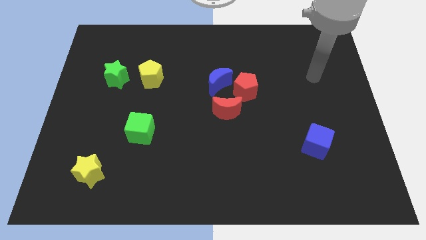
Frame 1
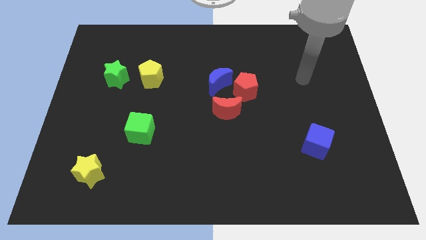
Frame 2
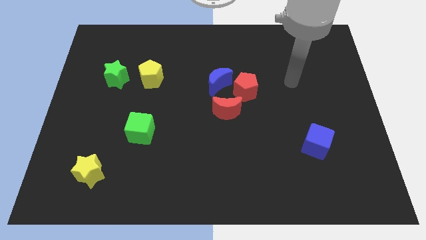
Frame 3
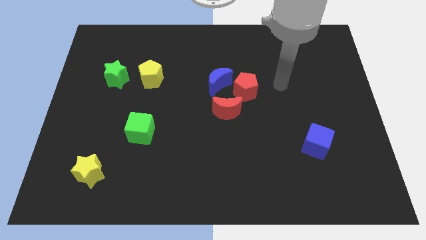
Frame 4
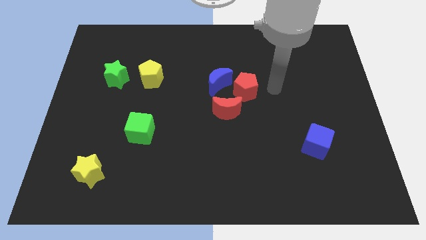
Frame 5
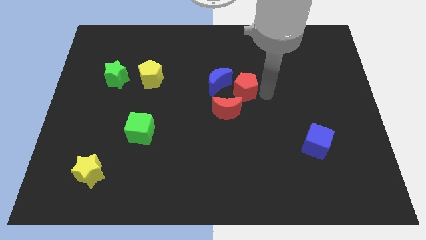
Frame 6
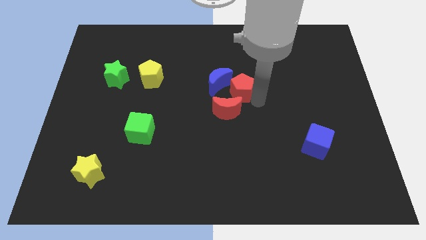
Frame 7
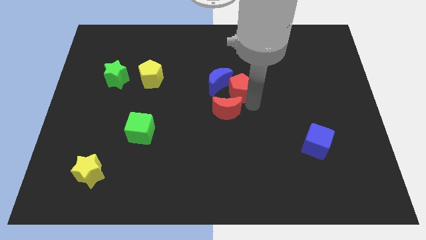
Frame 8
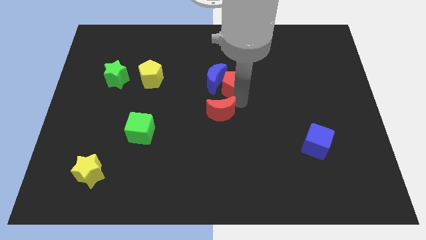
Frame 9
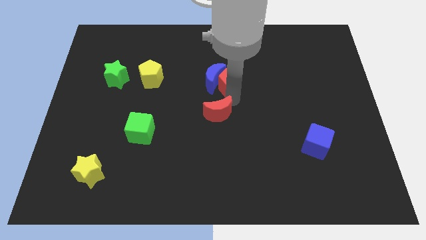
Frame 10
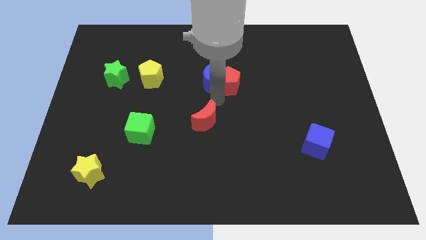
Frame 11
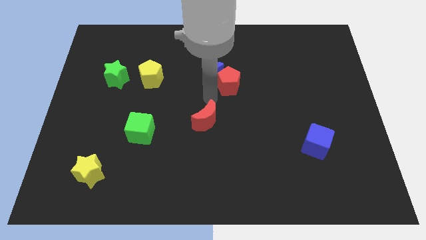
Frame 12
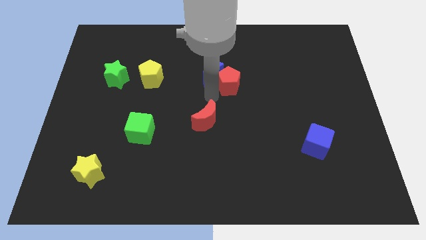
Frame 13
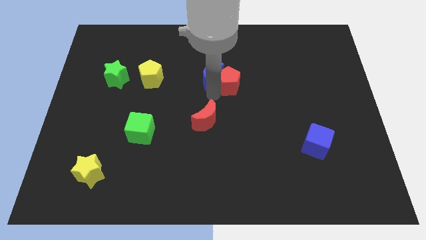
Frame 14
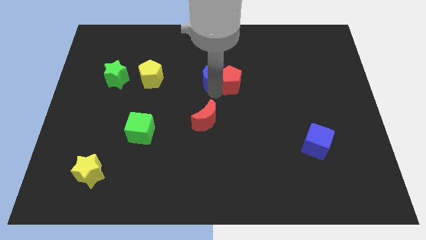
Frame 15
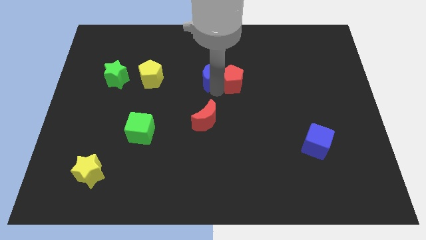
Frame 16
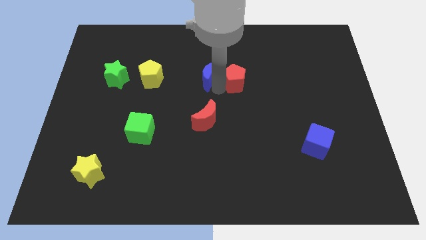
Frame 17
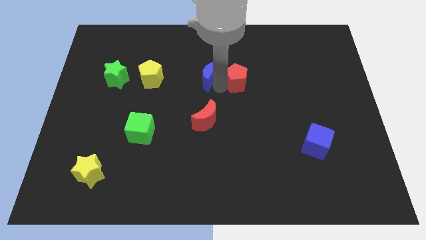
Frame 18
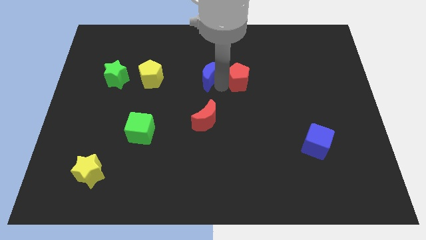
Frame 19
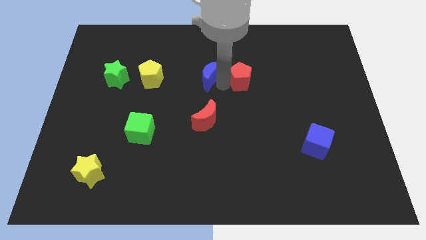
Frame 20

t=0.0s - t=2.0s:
move the red pentagon away from the blue moon and red moon

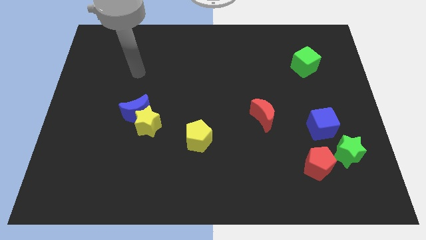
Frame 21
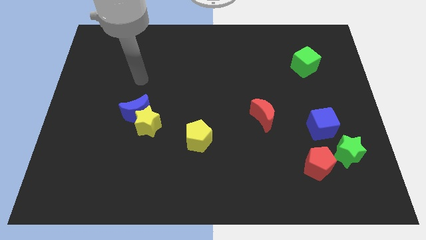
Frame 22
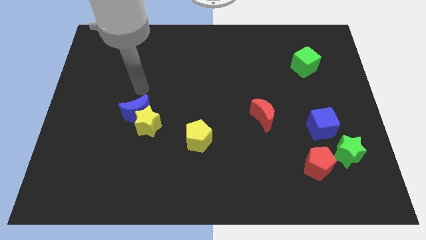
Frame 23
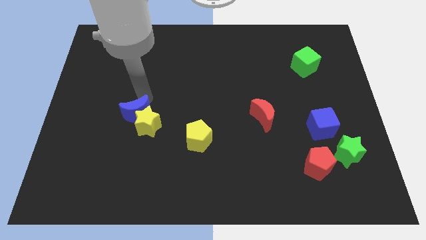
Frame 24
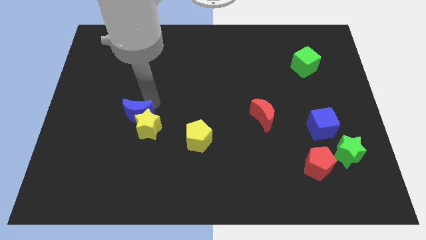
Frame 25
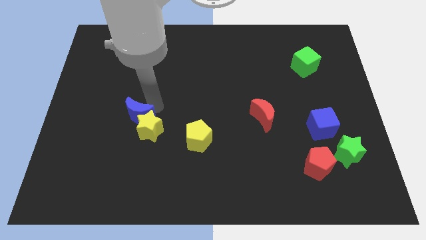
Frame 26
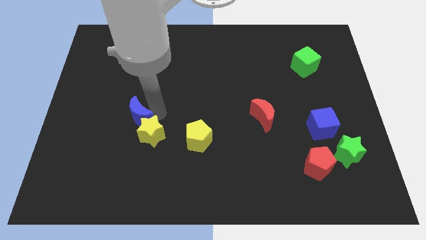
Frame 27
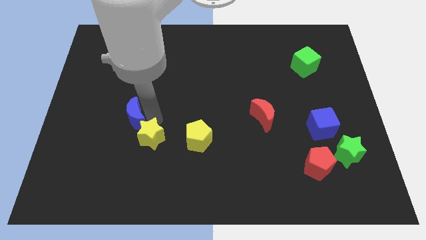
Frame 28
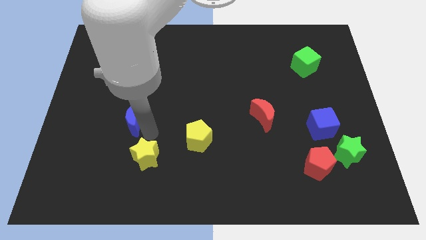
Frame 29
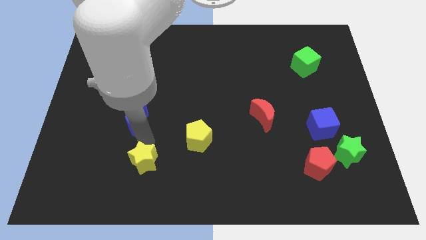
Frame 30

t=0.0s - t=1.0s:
move the blue moon away from the yellow star

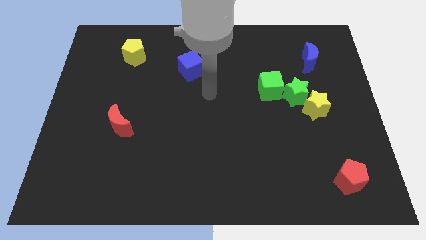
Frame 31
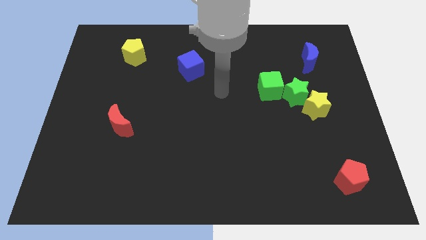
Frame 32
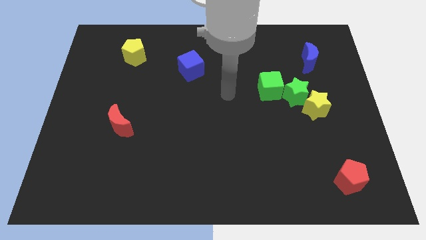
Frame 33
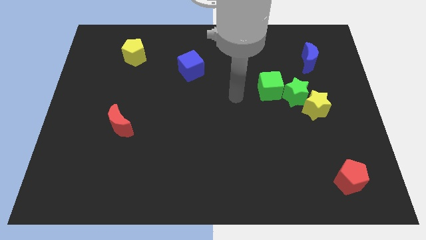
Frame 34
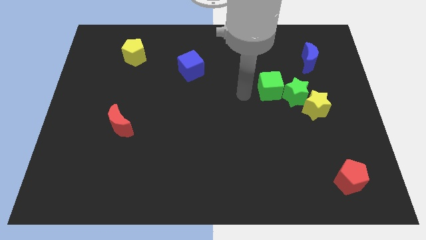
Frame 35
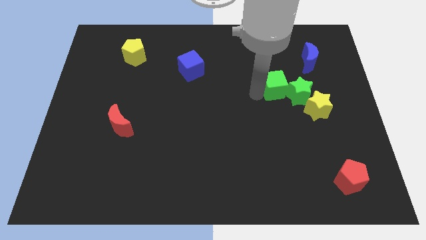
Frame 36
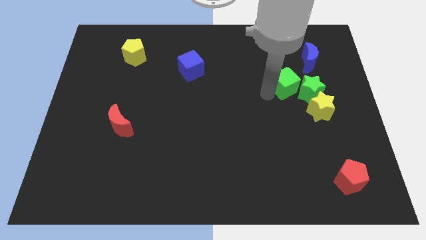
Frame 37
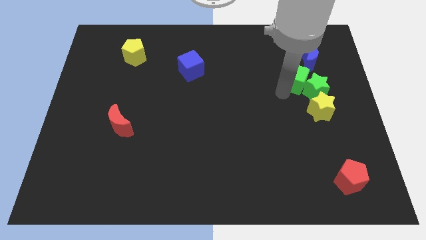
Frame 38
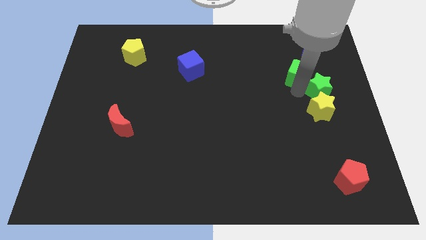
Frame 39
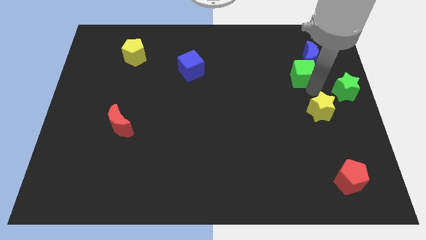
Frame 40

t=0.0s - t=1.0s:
pull the yellow star apart from the green star

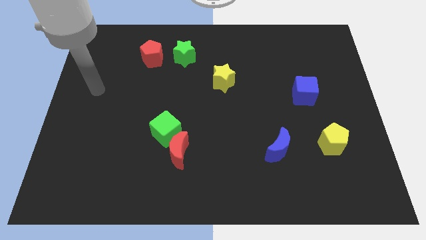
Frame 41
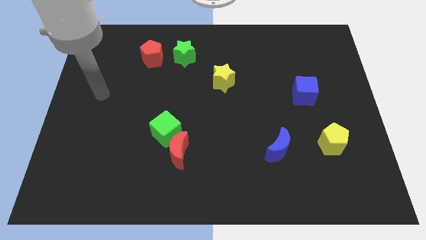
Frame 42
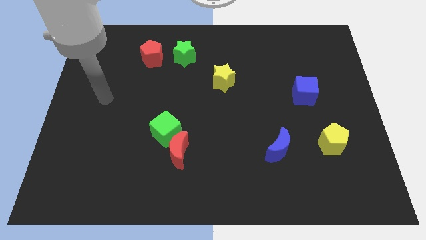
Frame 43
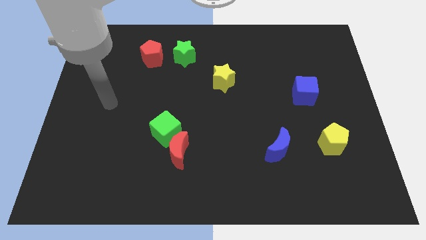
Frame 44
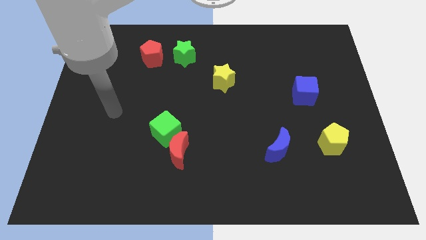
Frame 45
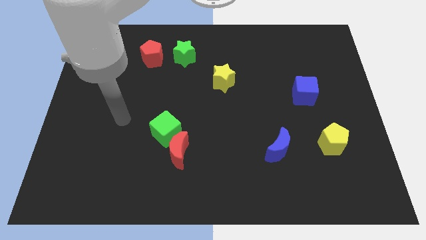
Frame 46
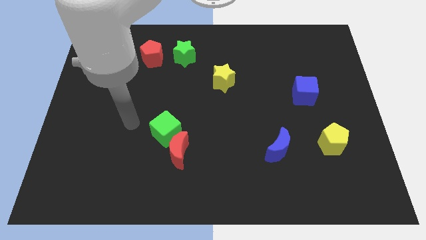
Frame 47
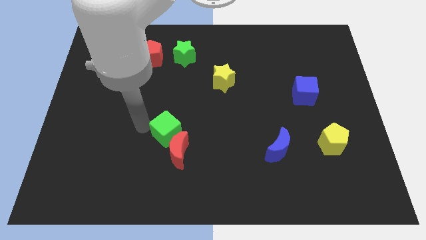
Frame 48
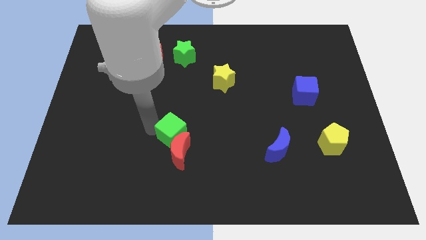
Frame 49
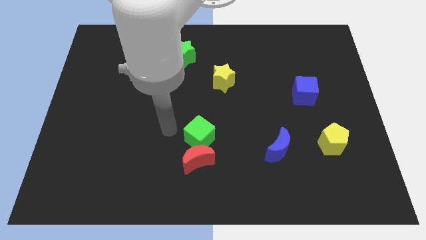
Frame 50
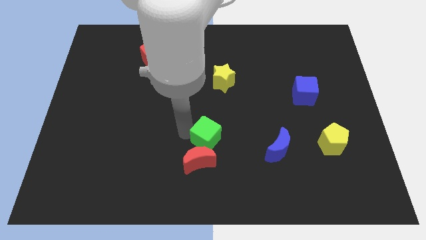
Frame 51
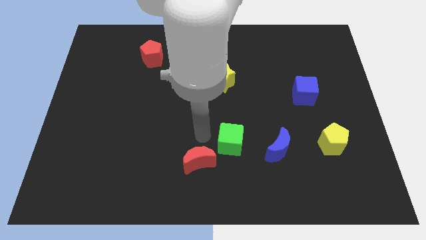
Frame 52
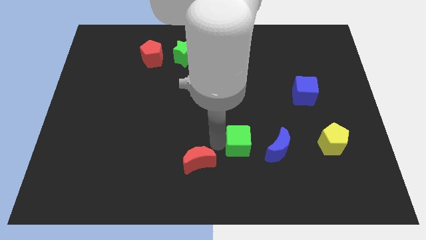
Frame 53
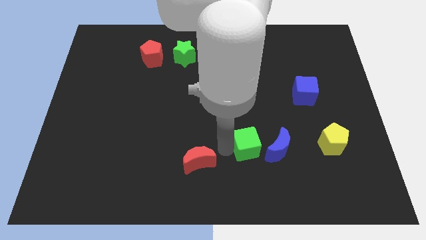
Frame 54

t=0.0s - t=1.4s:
move the red moon away from the green cube

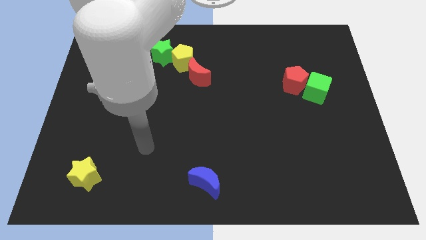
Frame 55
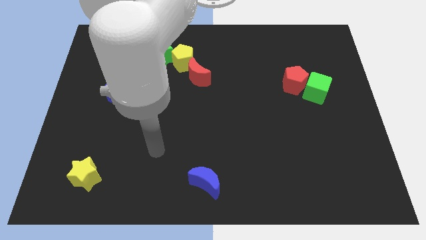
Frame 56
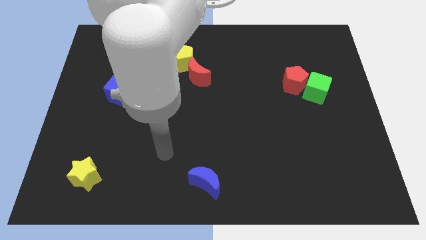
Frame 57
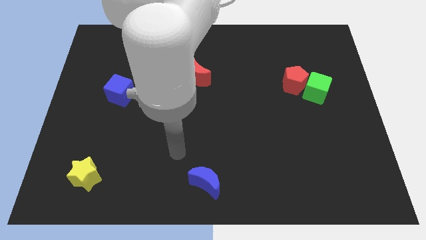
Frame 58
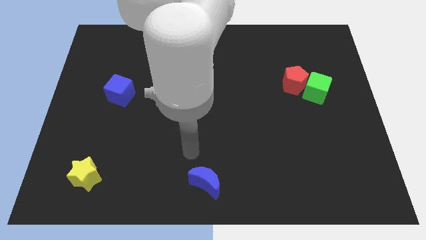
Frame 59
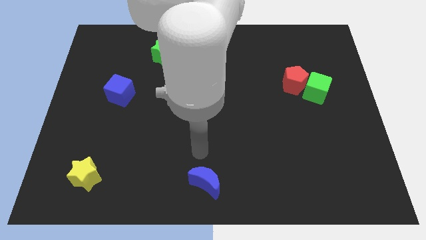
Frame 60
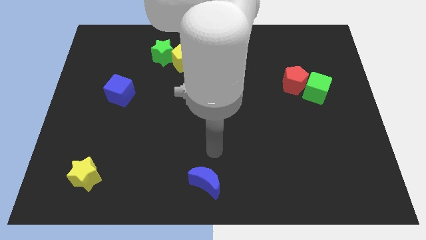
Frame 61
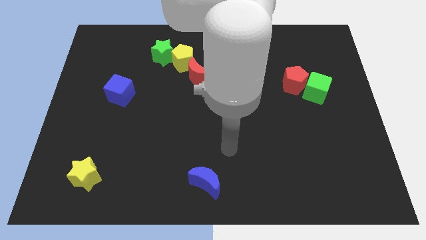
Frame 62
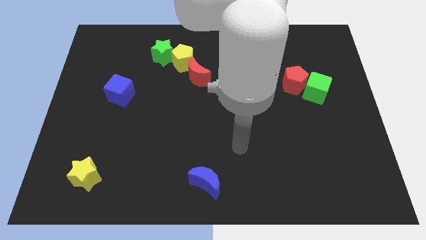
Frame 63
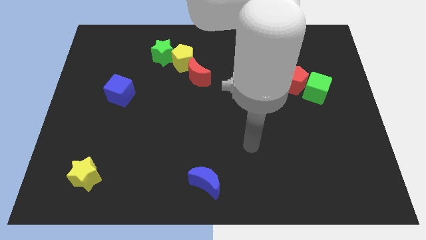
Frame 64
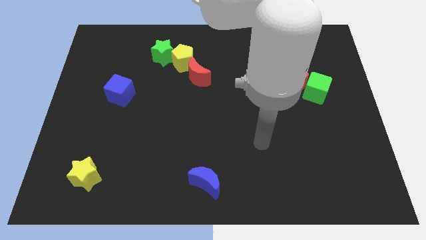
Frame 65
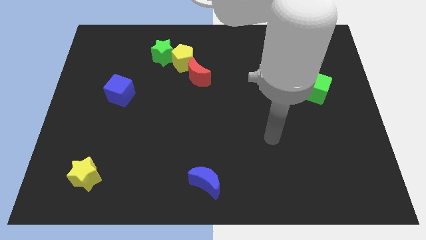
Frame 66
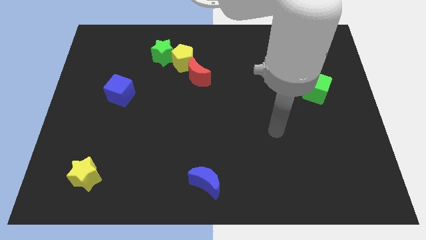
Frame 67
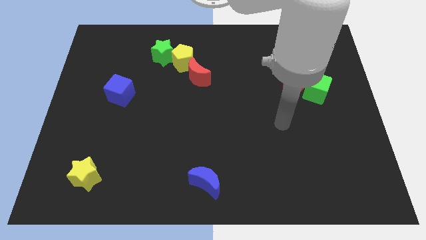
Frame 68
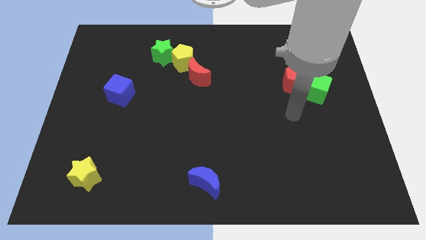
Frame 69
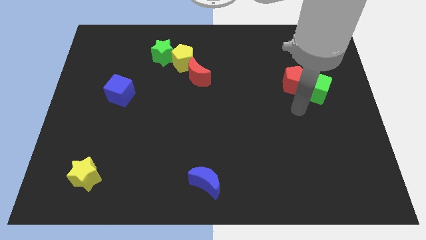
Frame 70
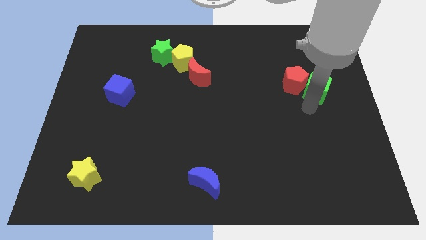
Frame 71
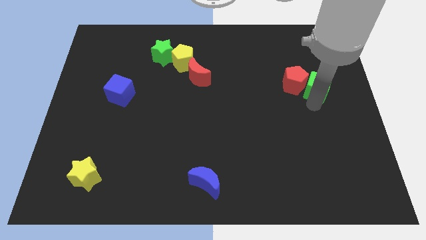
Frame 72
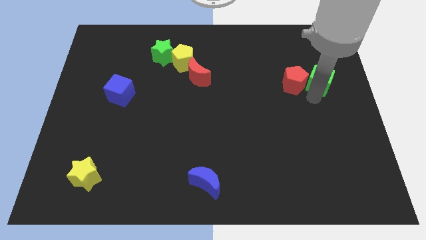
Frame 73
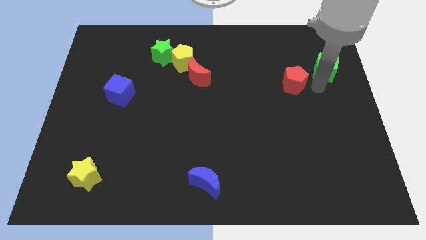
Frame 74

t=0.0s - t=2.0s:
pull the red pentagon apart from the green cube

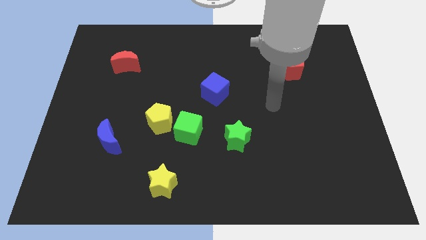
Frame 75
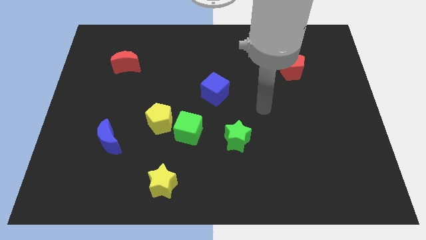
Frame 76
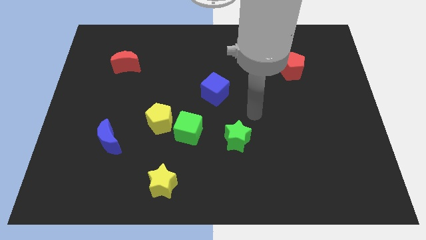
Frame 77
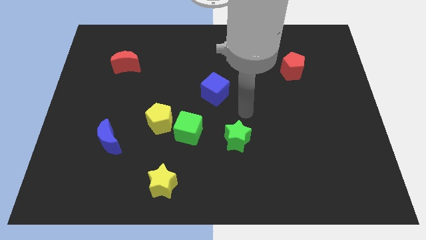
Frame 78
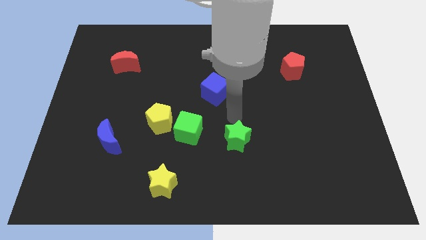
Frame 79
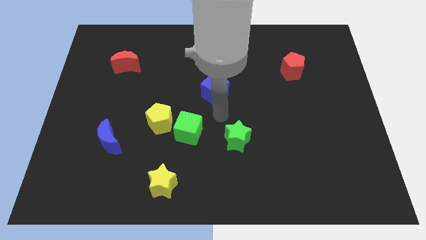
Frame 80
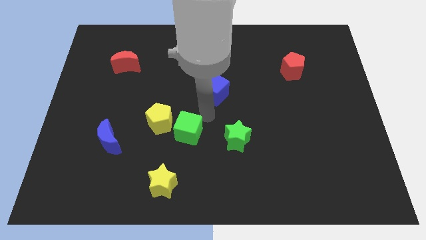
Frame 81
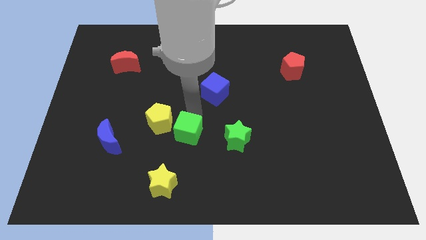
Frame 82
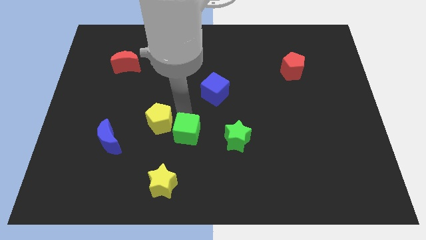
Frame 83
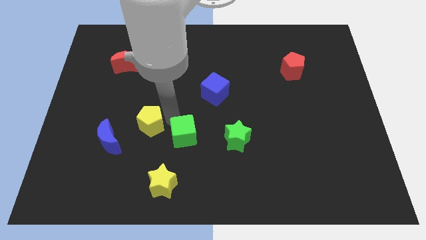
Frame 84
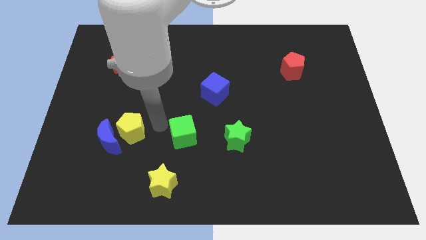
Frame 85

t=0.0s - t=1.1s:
move the green cube away from the yellow pentagon

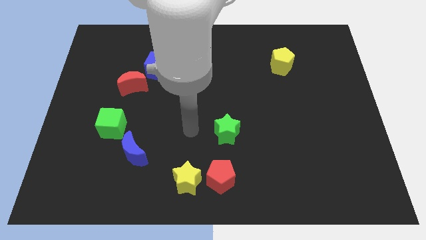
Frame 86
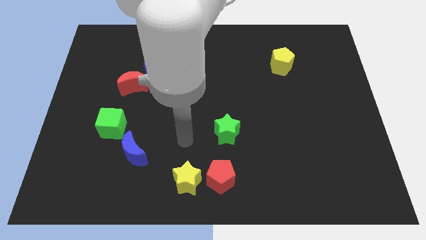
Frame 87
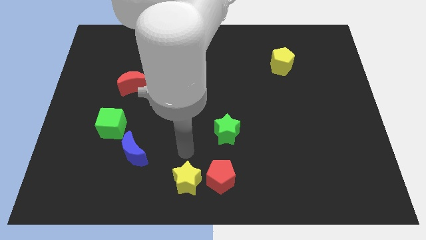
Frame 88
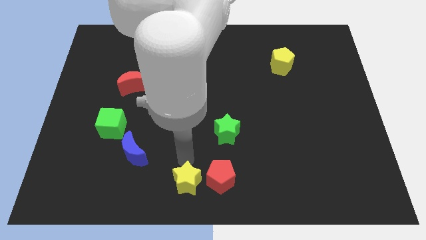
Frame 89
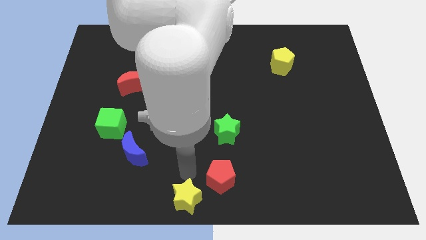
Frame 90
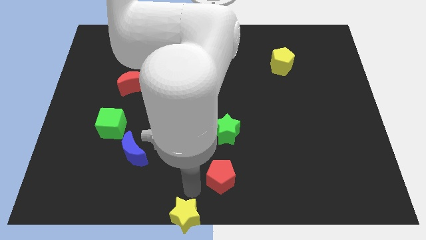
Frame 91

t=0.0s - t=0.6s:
move the red pentagon away from the yellow star

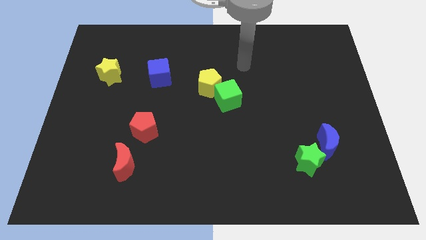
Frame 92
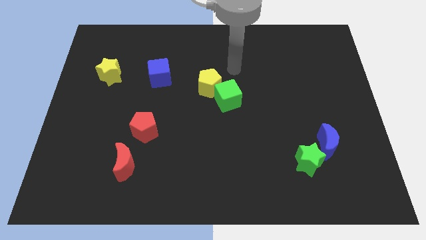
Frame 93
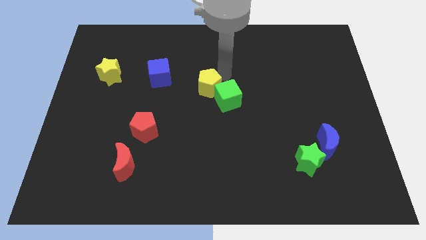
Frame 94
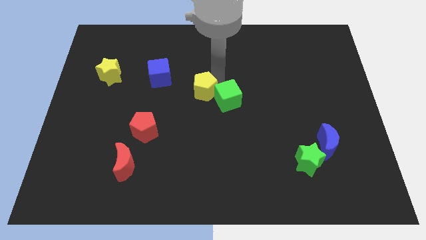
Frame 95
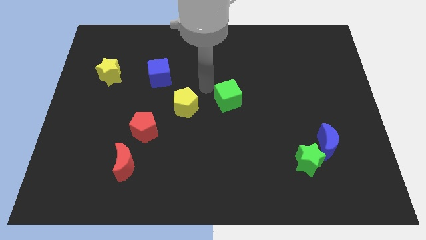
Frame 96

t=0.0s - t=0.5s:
pull the green cube apart from the yellow pentagon
